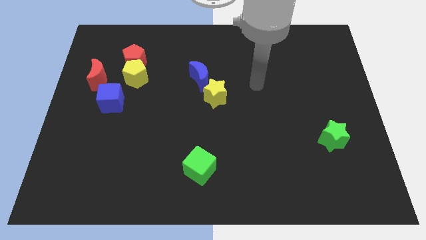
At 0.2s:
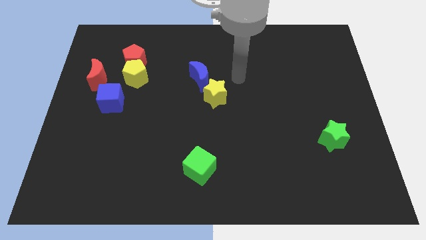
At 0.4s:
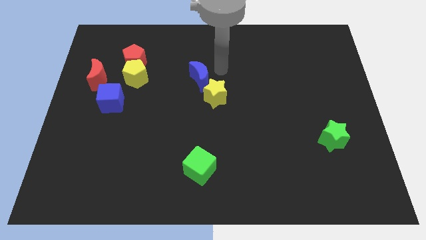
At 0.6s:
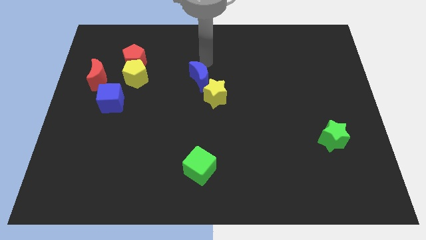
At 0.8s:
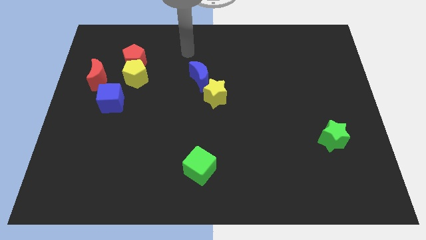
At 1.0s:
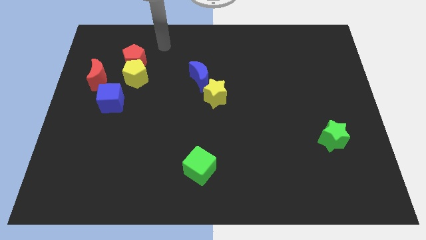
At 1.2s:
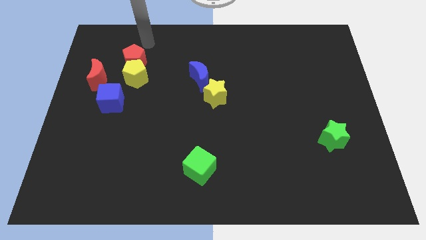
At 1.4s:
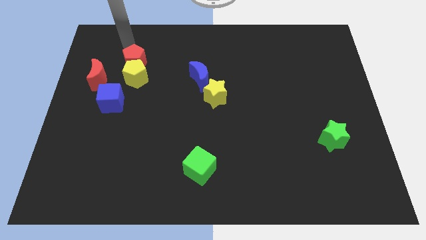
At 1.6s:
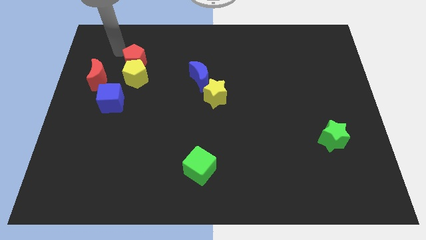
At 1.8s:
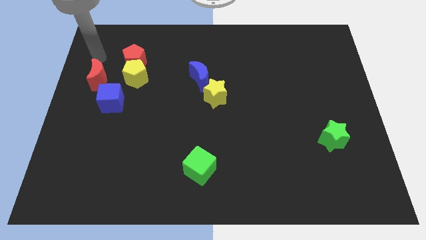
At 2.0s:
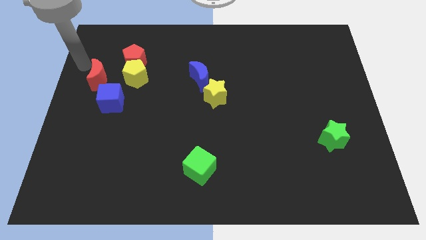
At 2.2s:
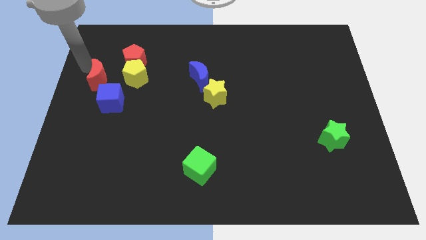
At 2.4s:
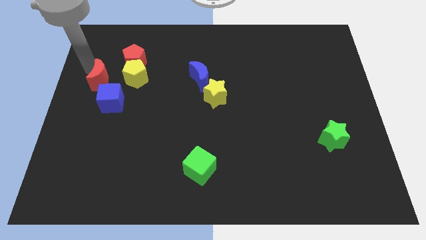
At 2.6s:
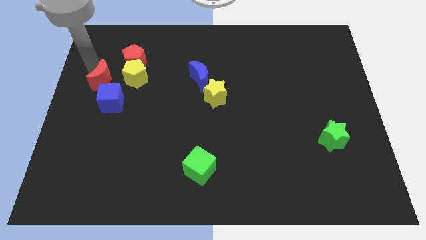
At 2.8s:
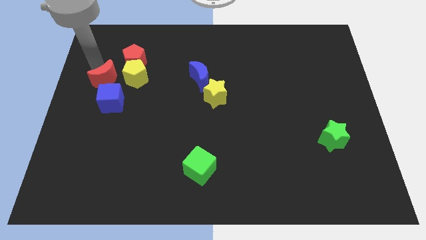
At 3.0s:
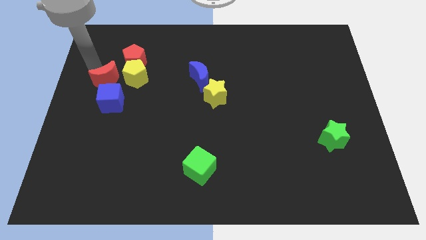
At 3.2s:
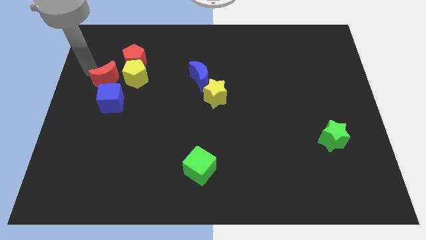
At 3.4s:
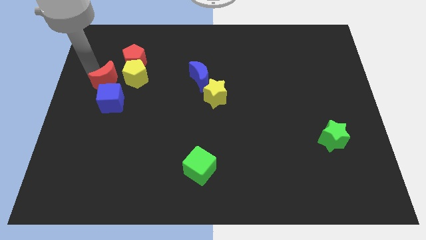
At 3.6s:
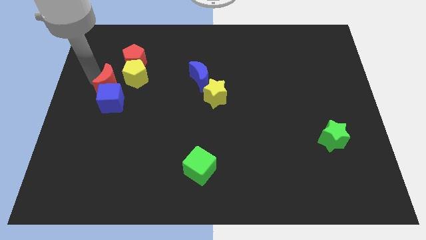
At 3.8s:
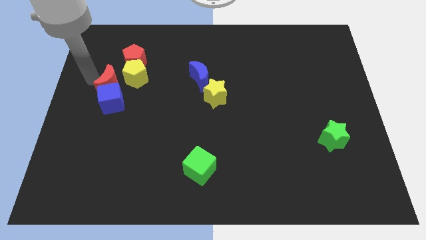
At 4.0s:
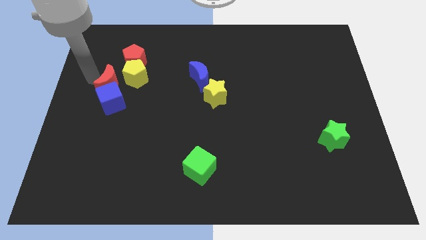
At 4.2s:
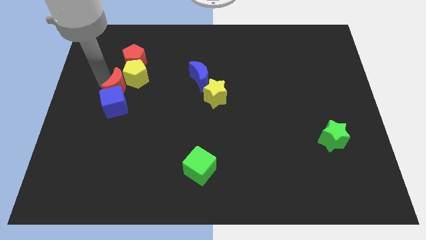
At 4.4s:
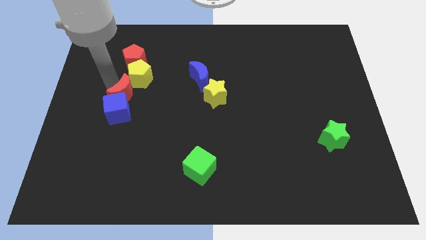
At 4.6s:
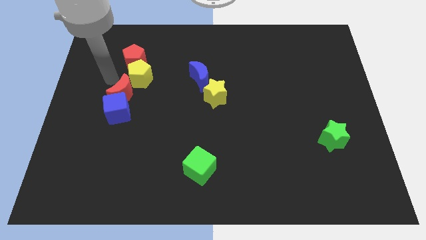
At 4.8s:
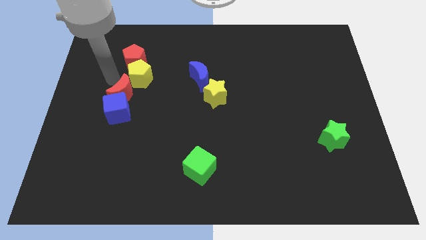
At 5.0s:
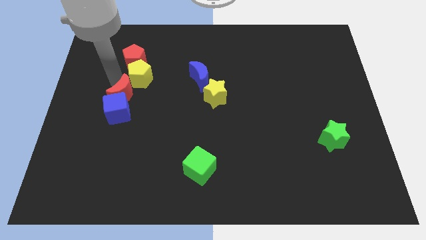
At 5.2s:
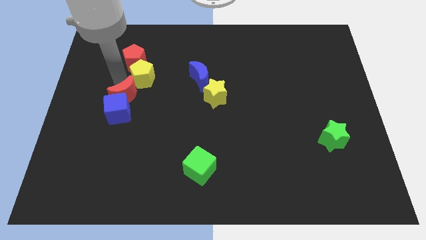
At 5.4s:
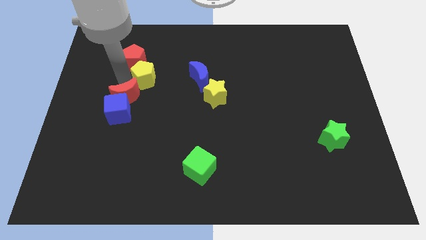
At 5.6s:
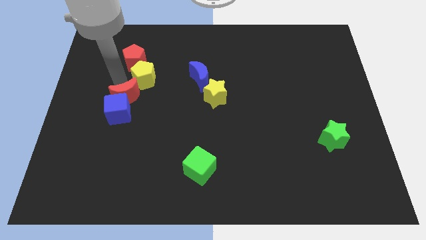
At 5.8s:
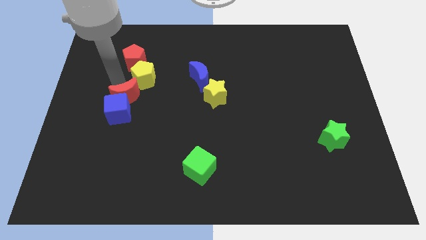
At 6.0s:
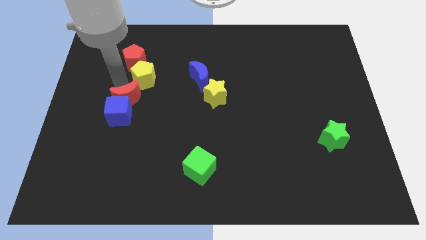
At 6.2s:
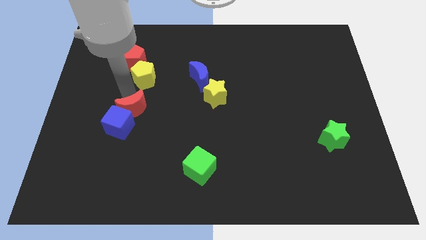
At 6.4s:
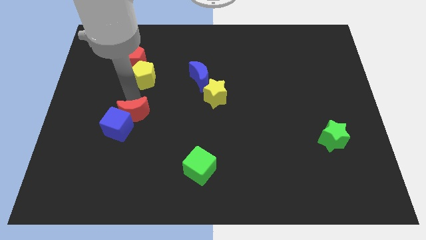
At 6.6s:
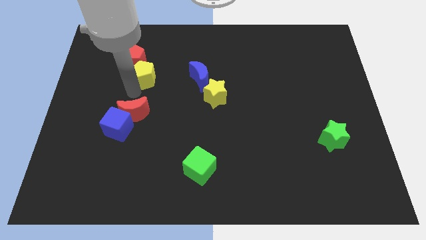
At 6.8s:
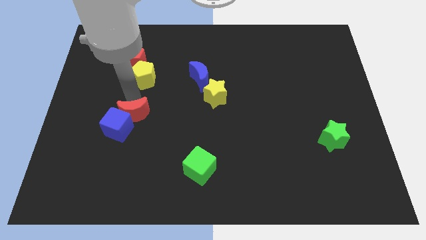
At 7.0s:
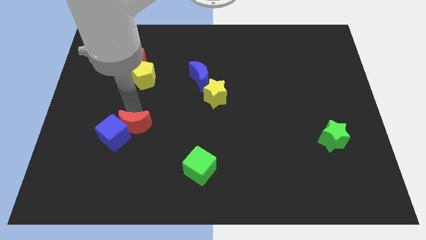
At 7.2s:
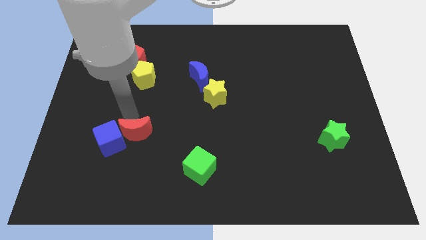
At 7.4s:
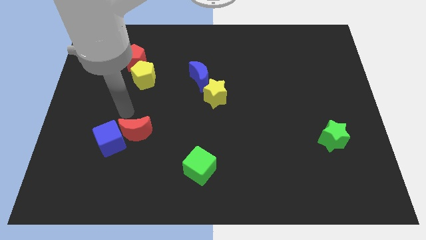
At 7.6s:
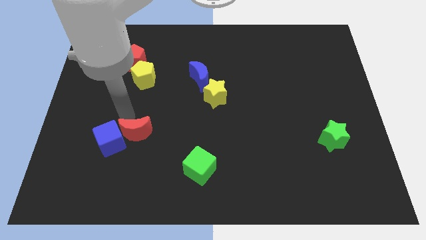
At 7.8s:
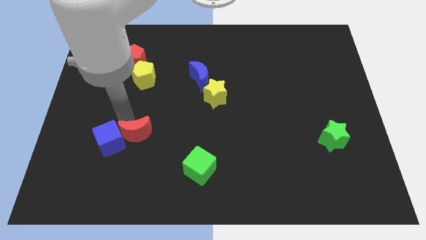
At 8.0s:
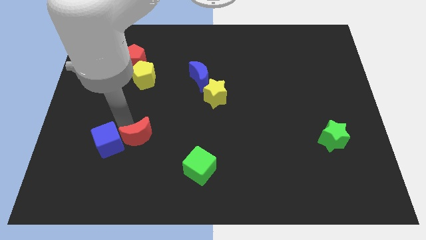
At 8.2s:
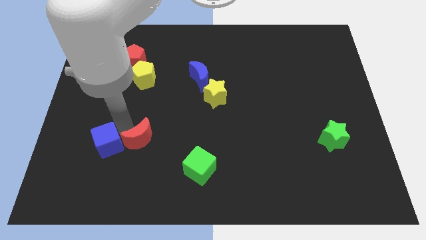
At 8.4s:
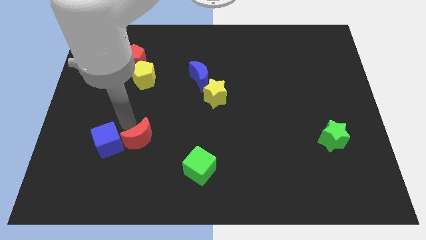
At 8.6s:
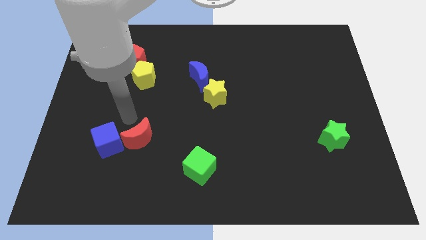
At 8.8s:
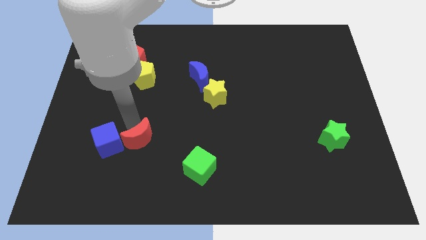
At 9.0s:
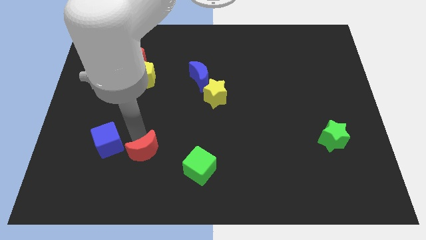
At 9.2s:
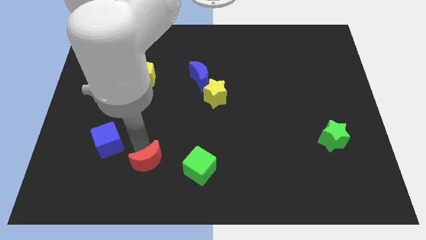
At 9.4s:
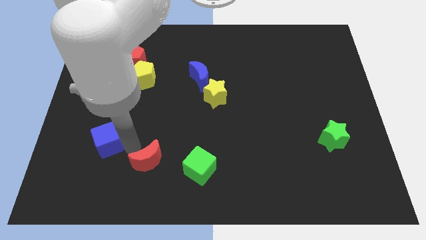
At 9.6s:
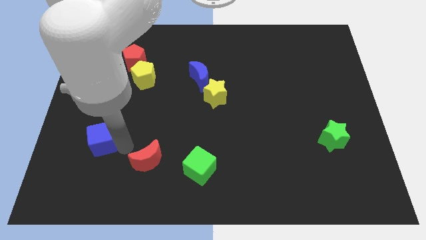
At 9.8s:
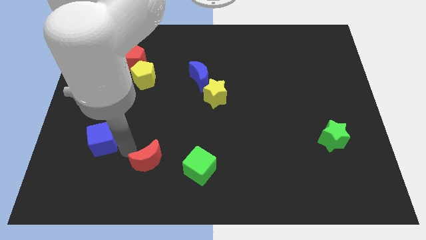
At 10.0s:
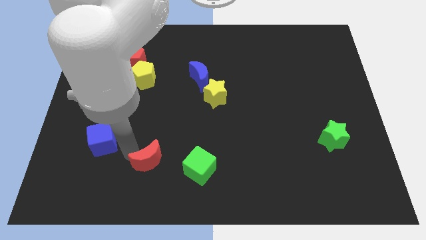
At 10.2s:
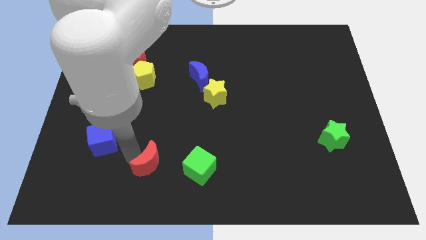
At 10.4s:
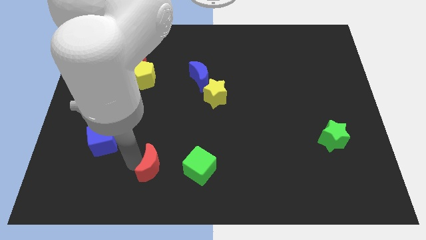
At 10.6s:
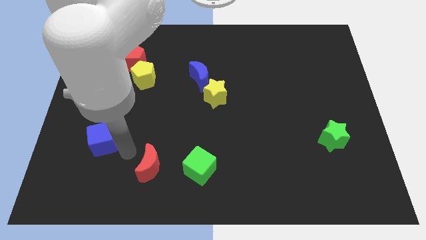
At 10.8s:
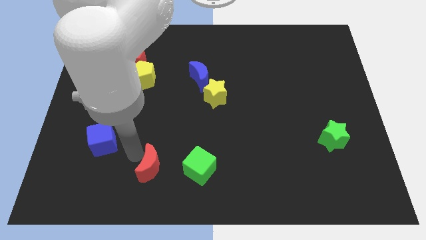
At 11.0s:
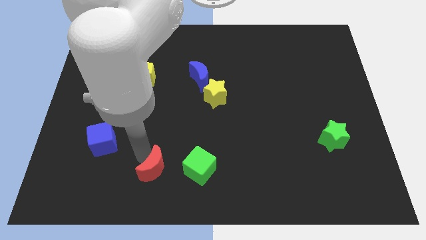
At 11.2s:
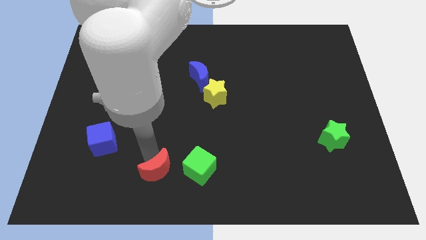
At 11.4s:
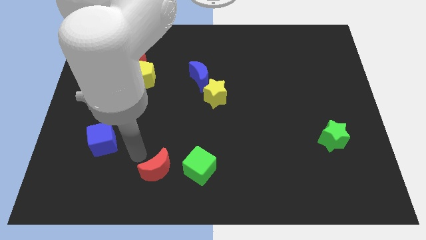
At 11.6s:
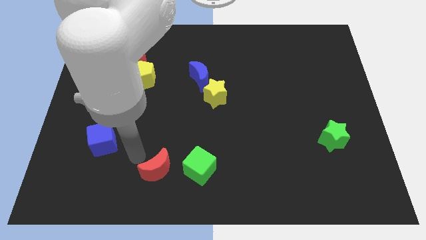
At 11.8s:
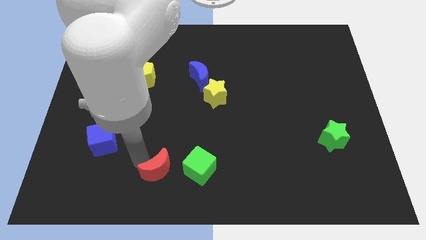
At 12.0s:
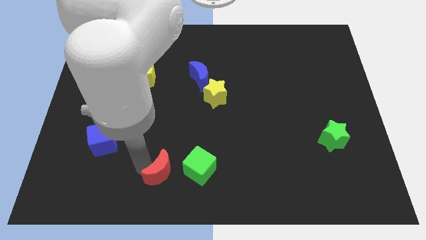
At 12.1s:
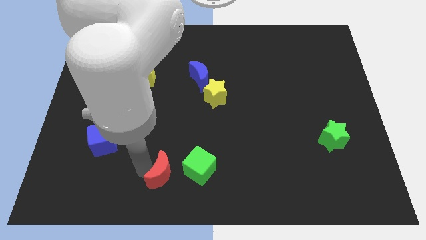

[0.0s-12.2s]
move the red moon to the bottom side

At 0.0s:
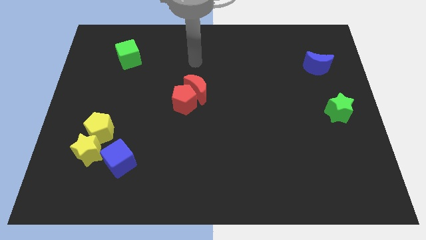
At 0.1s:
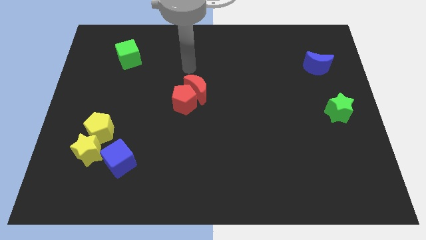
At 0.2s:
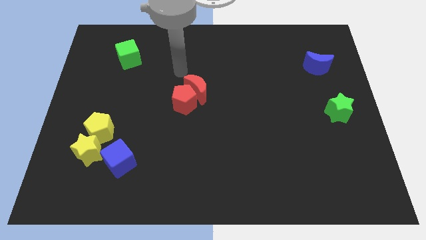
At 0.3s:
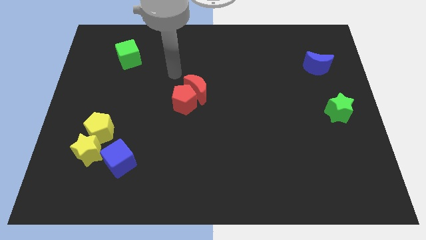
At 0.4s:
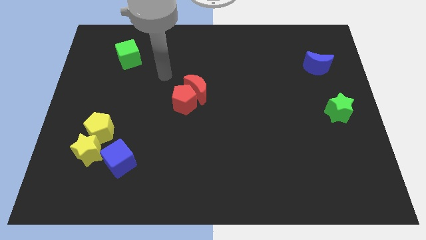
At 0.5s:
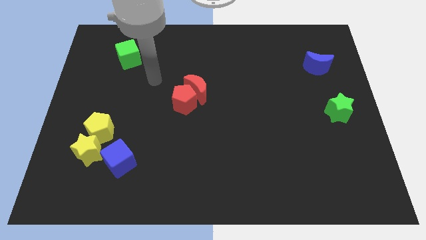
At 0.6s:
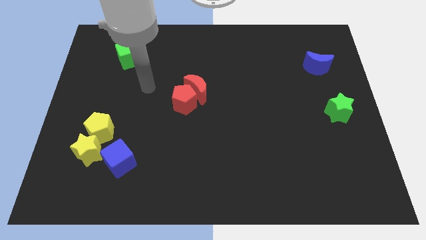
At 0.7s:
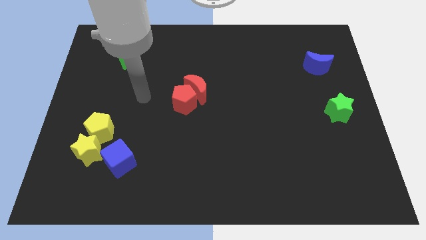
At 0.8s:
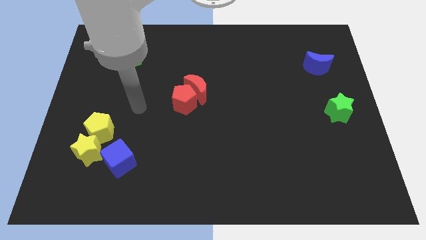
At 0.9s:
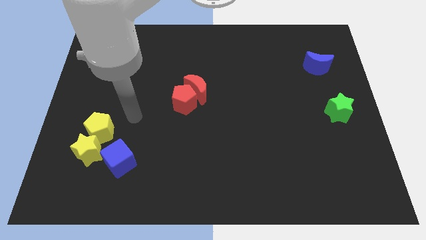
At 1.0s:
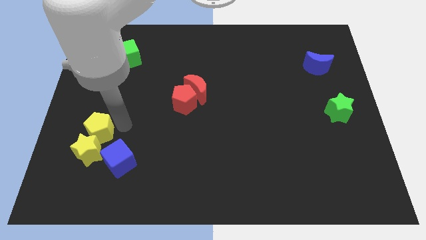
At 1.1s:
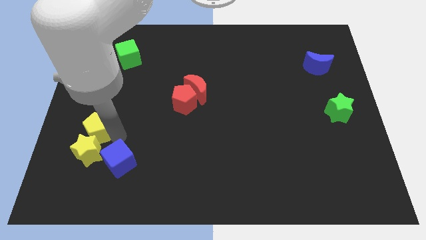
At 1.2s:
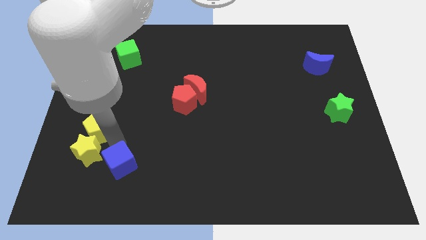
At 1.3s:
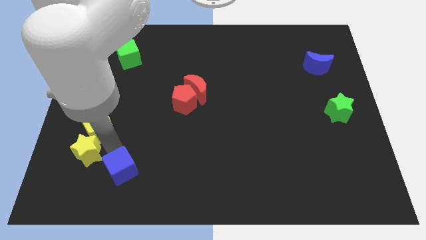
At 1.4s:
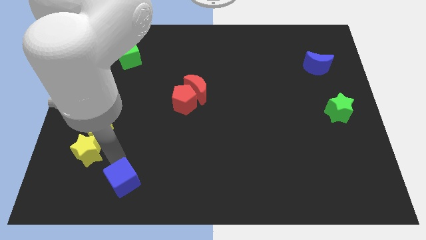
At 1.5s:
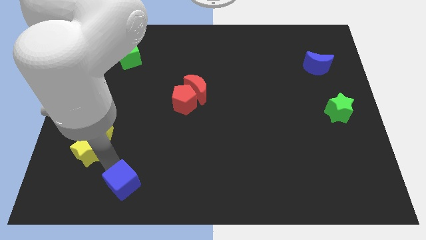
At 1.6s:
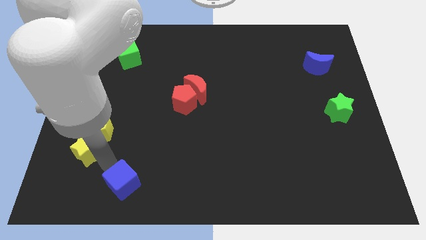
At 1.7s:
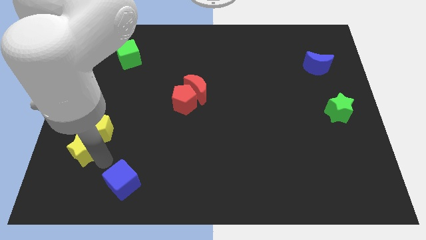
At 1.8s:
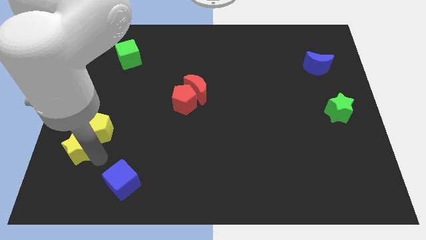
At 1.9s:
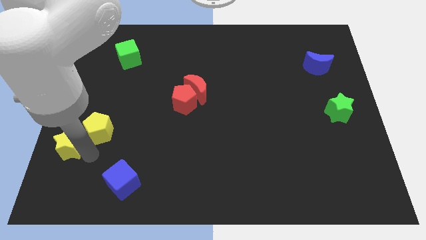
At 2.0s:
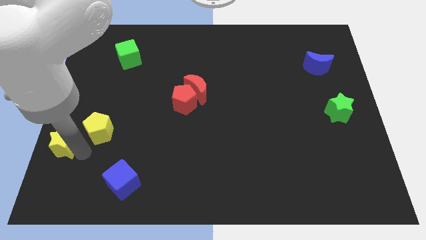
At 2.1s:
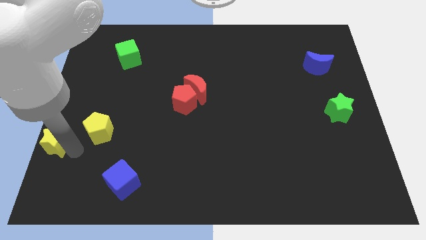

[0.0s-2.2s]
put the yellow star to the center left
